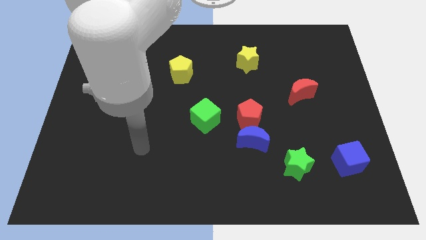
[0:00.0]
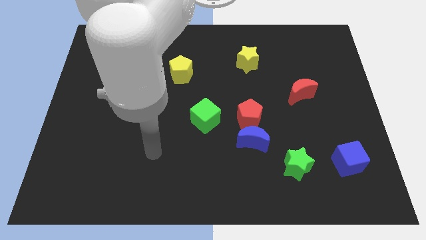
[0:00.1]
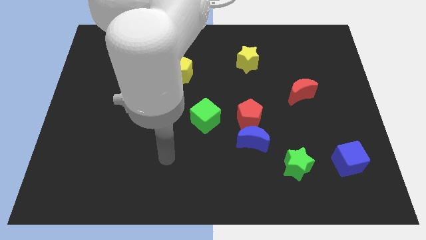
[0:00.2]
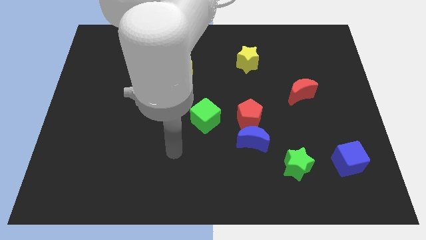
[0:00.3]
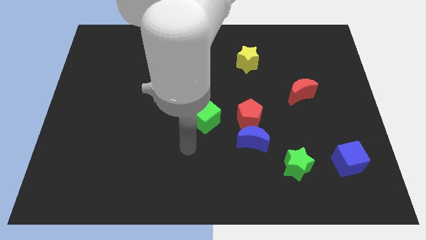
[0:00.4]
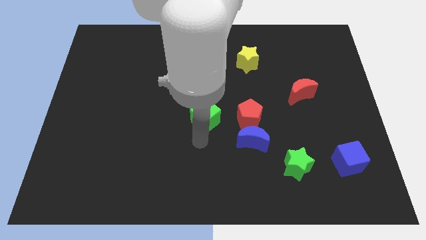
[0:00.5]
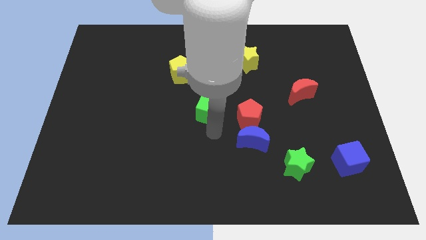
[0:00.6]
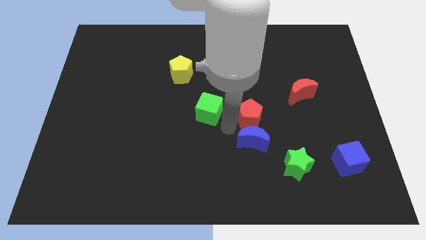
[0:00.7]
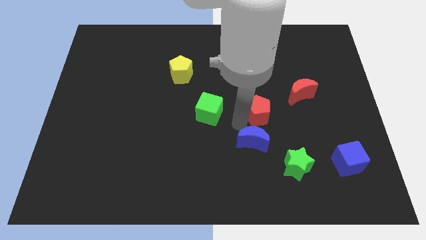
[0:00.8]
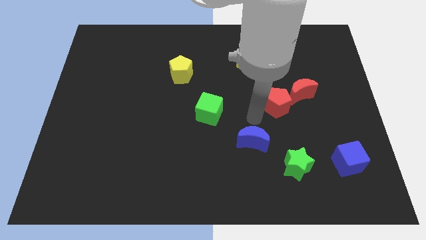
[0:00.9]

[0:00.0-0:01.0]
pull the blue moon apart from the red pentagon

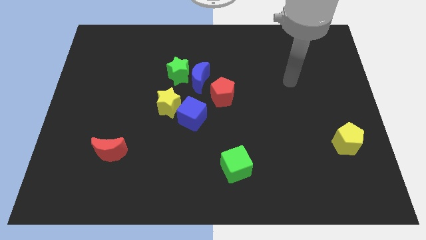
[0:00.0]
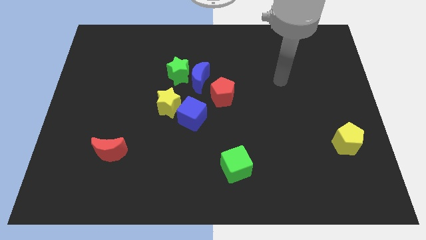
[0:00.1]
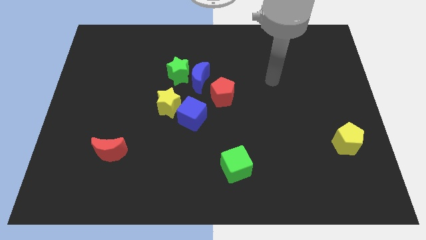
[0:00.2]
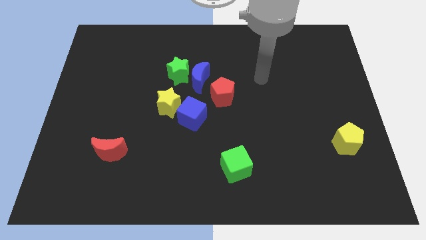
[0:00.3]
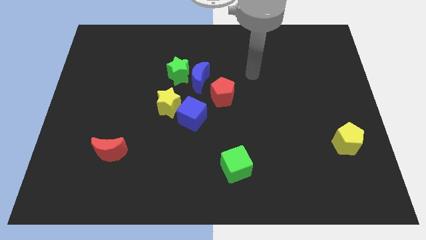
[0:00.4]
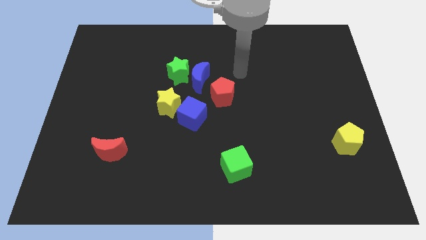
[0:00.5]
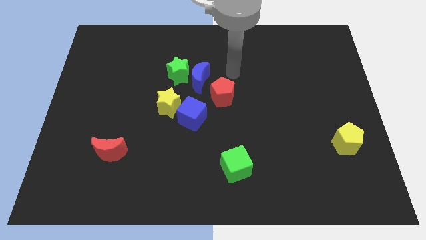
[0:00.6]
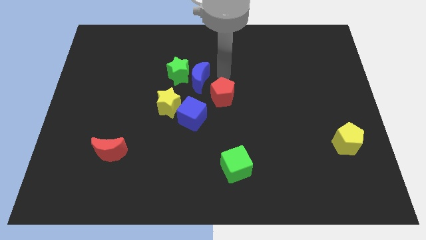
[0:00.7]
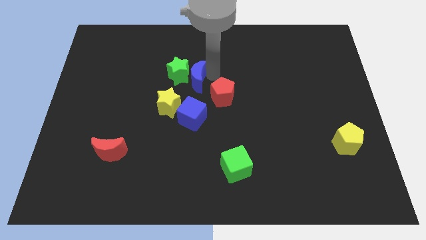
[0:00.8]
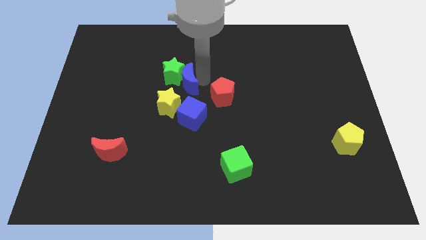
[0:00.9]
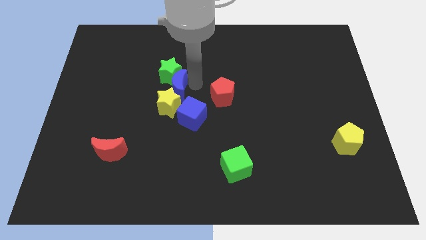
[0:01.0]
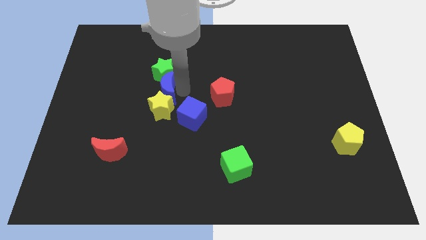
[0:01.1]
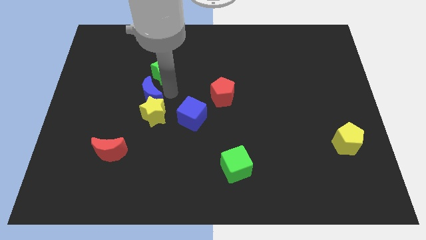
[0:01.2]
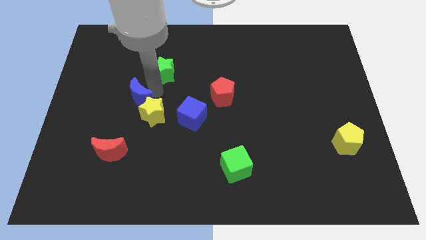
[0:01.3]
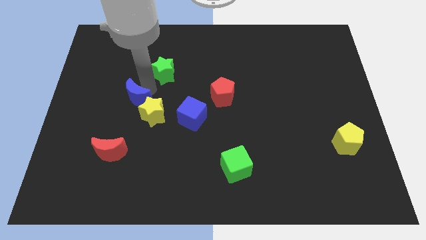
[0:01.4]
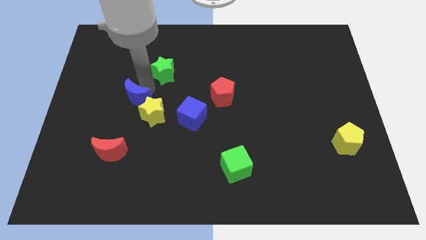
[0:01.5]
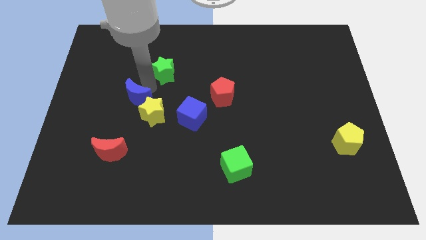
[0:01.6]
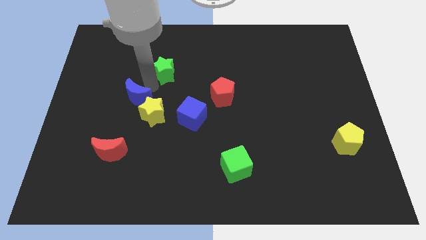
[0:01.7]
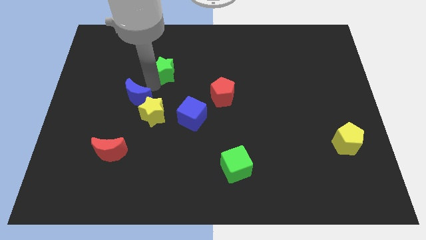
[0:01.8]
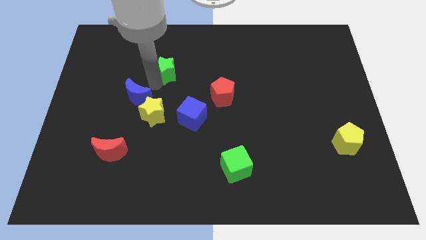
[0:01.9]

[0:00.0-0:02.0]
separate the green star from the blue moon

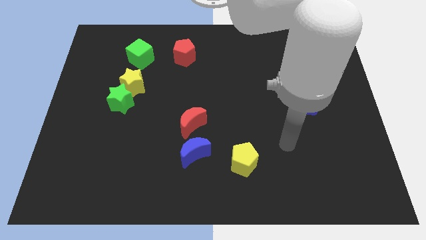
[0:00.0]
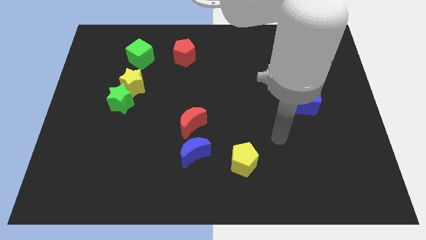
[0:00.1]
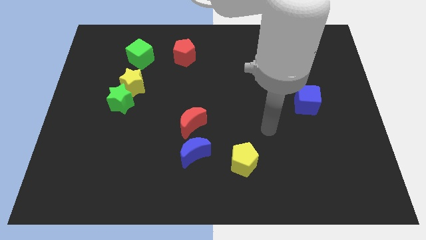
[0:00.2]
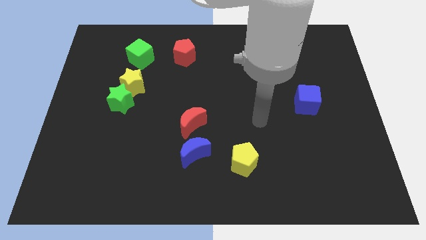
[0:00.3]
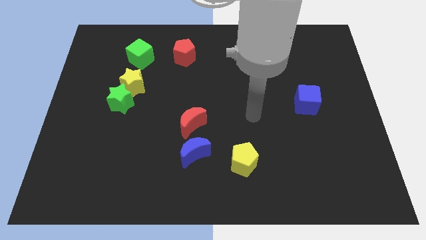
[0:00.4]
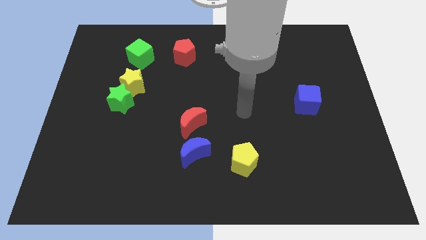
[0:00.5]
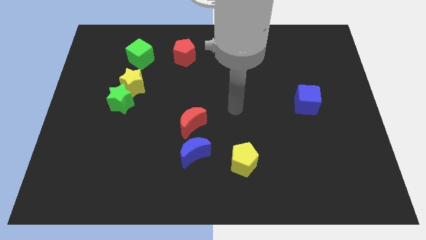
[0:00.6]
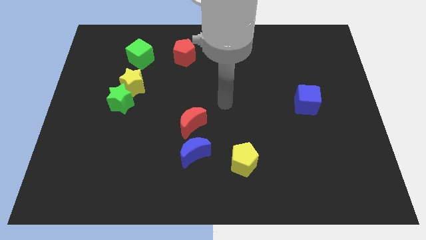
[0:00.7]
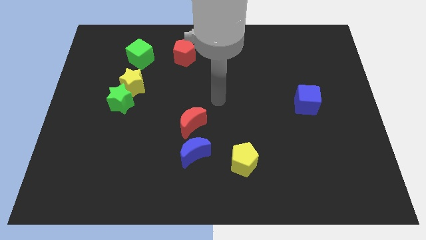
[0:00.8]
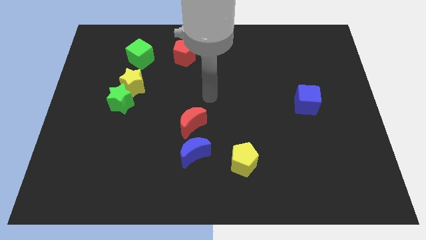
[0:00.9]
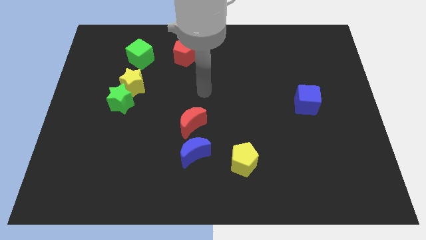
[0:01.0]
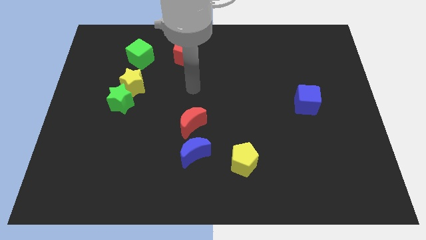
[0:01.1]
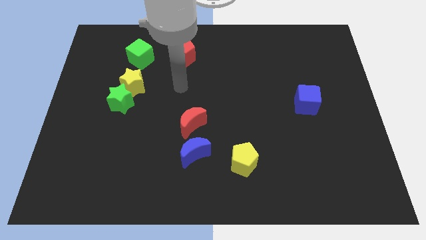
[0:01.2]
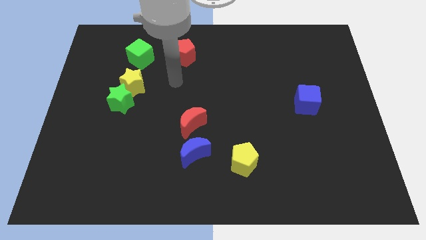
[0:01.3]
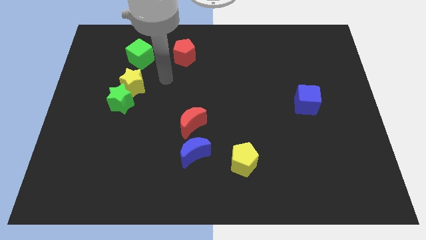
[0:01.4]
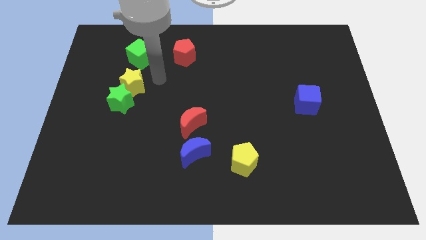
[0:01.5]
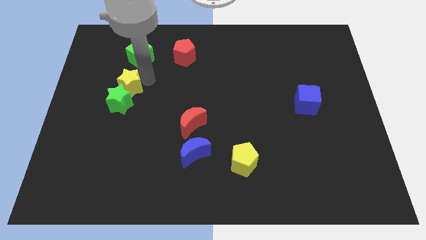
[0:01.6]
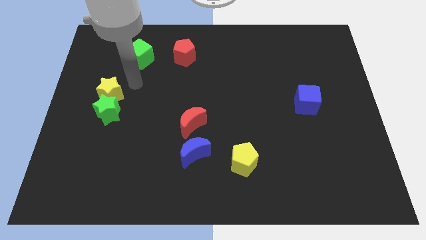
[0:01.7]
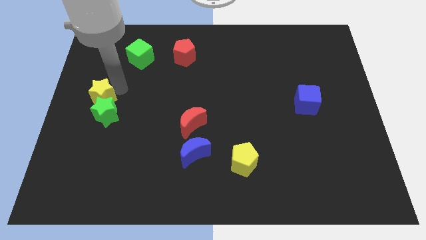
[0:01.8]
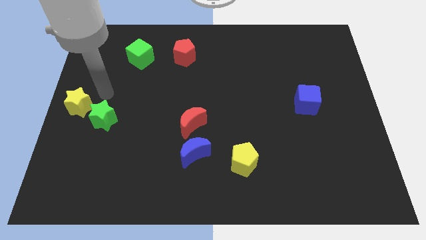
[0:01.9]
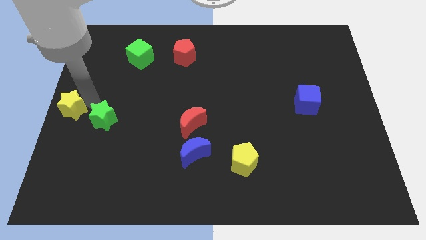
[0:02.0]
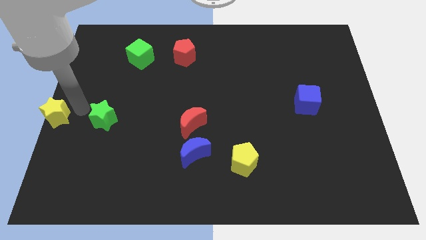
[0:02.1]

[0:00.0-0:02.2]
pull the green star apart from the yellow star

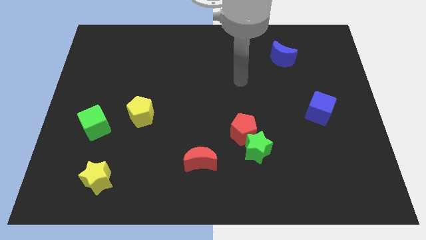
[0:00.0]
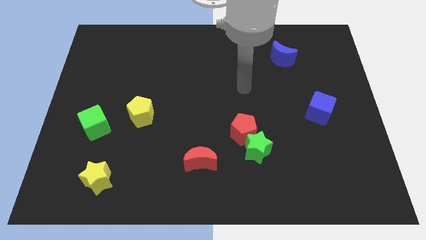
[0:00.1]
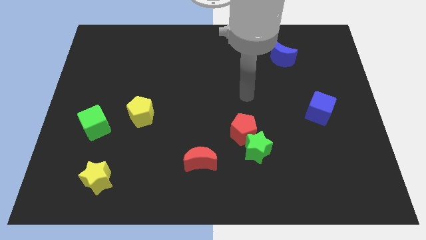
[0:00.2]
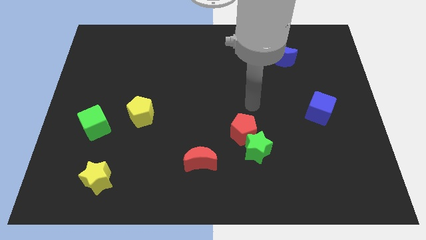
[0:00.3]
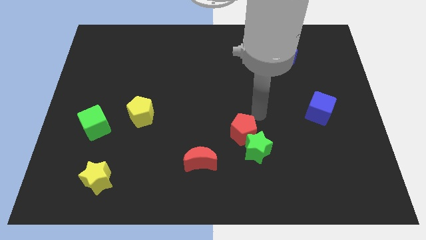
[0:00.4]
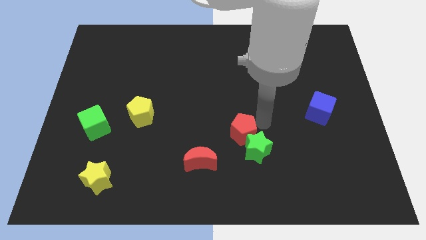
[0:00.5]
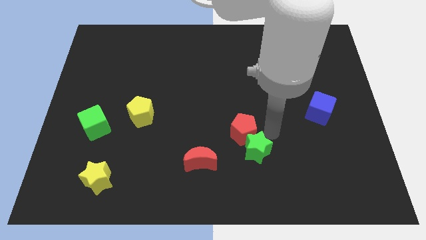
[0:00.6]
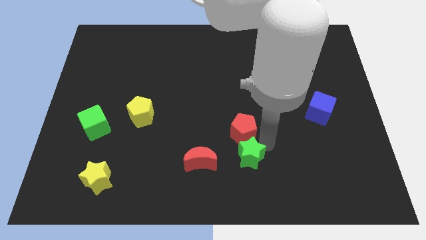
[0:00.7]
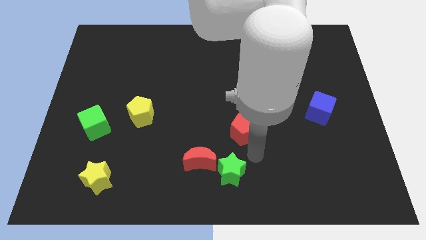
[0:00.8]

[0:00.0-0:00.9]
pull the red pentagon apart from the green star

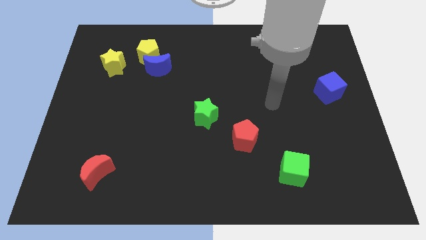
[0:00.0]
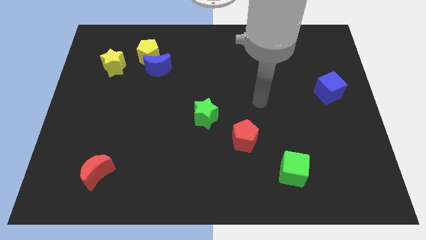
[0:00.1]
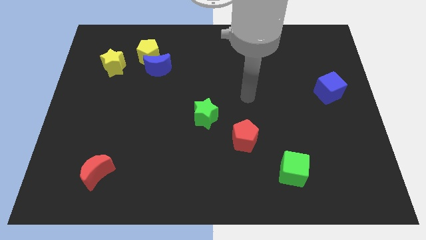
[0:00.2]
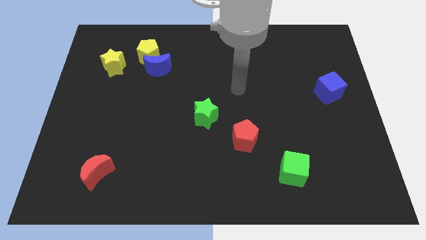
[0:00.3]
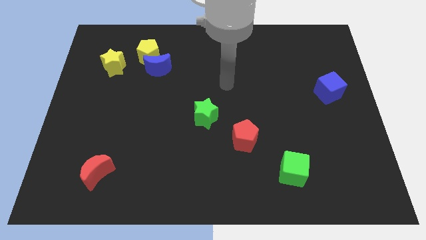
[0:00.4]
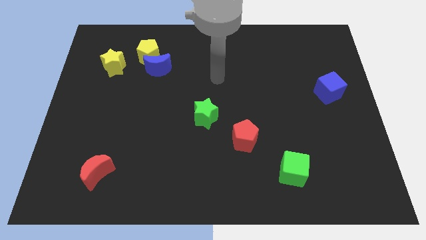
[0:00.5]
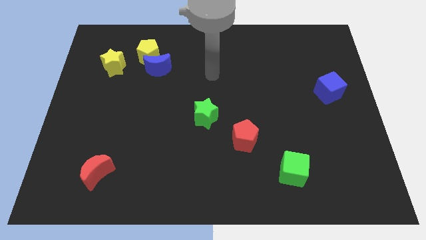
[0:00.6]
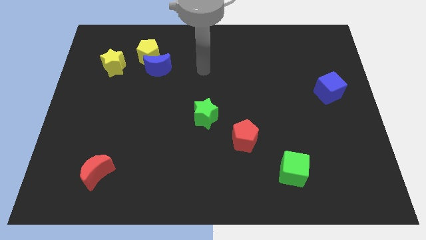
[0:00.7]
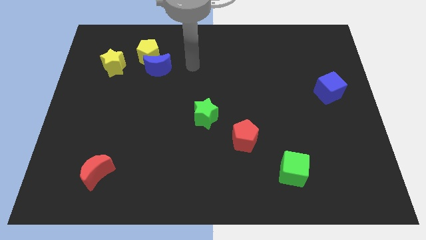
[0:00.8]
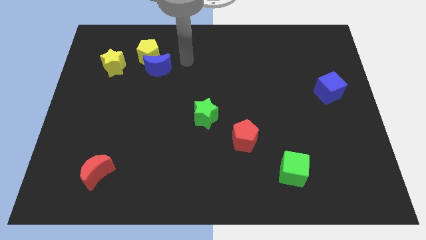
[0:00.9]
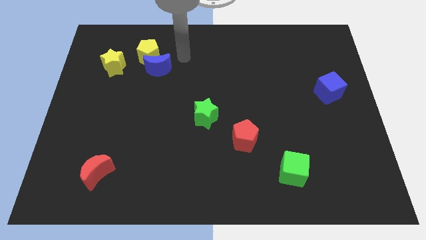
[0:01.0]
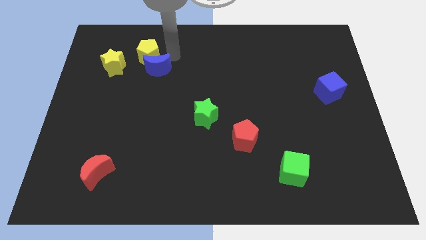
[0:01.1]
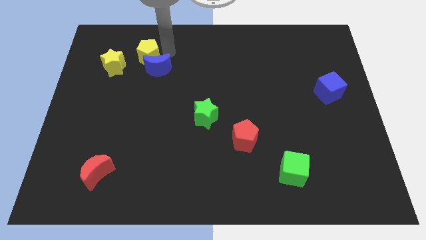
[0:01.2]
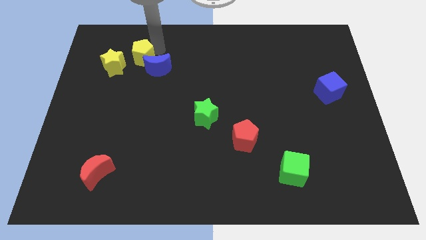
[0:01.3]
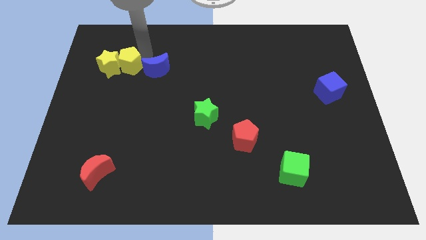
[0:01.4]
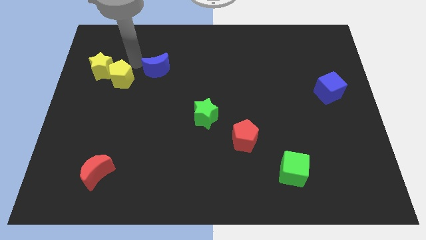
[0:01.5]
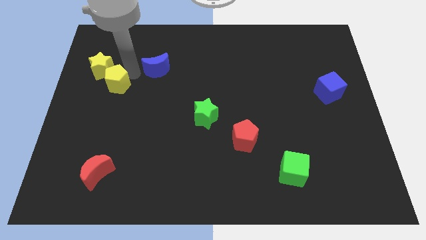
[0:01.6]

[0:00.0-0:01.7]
separate the blue moon from the yellow pentagon

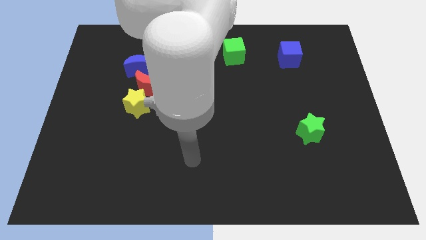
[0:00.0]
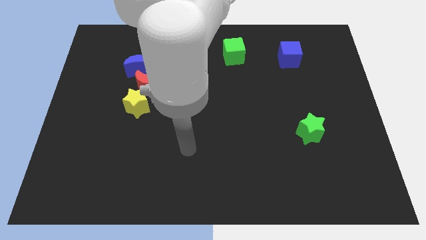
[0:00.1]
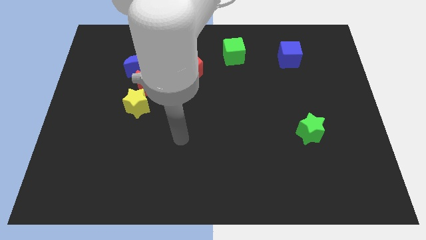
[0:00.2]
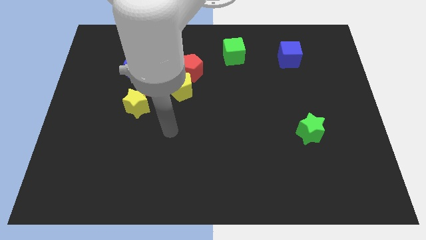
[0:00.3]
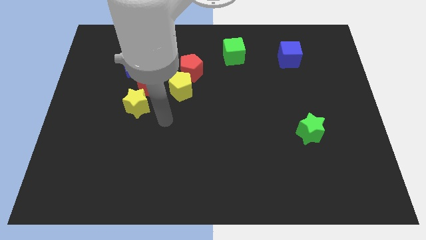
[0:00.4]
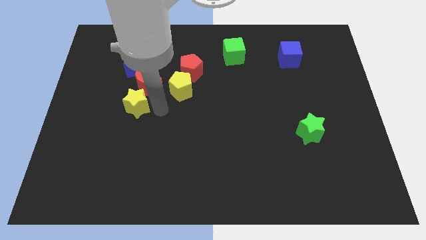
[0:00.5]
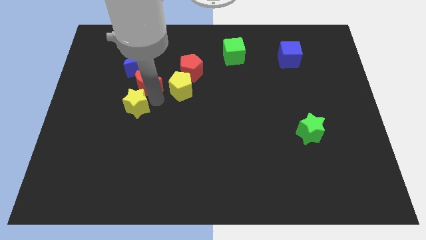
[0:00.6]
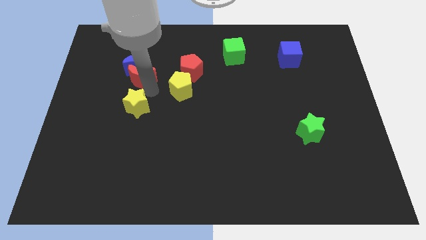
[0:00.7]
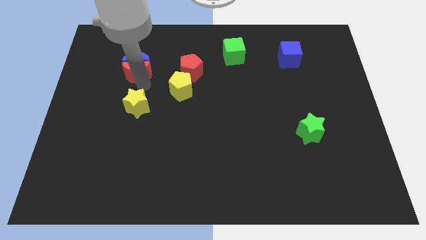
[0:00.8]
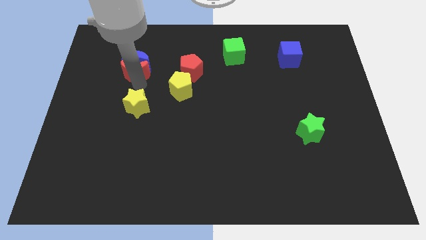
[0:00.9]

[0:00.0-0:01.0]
pull the yellow star apart from the red moon

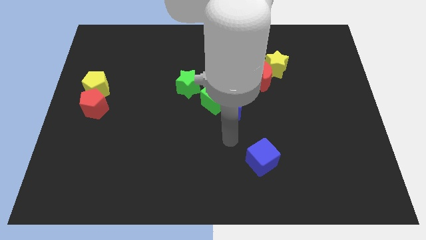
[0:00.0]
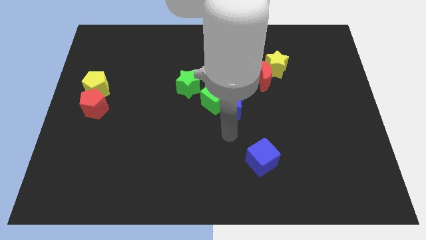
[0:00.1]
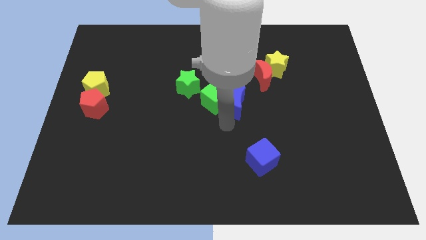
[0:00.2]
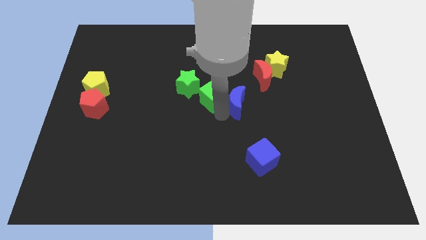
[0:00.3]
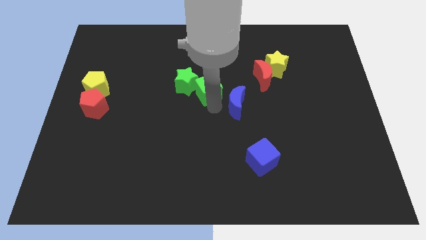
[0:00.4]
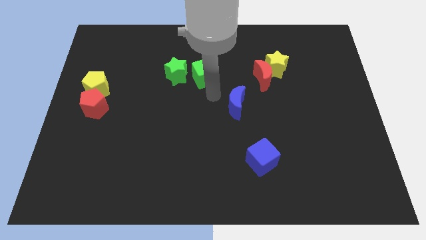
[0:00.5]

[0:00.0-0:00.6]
move the blue moon away from the green cube
